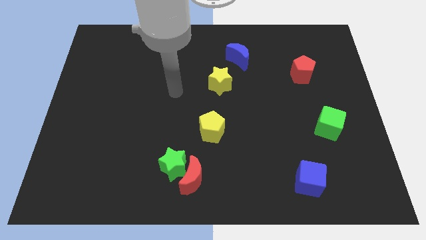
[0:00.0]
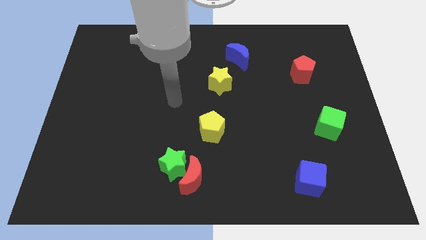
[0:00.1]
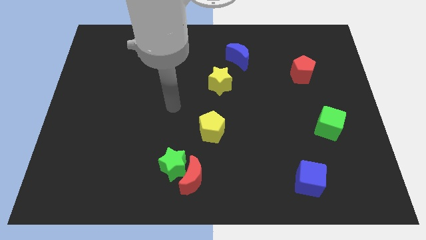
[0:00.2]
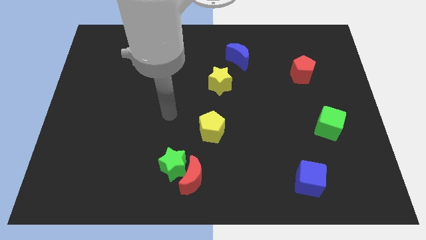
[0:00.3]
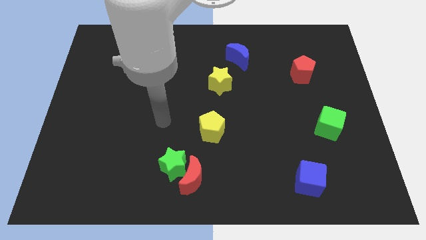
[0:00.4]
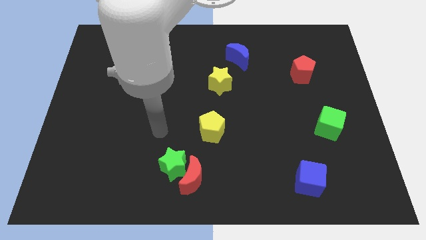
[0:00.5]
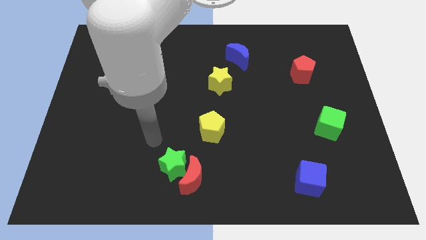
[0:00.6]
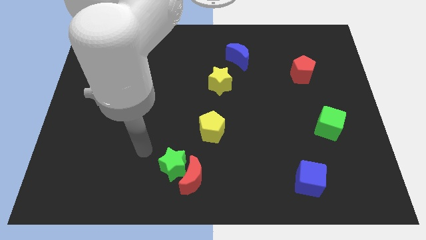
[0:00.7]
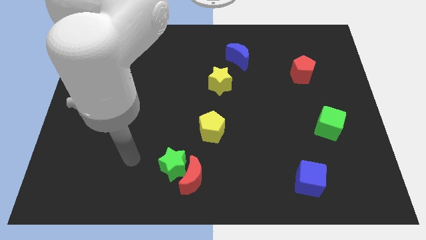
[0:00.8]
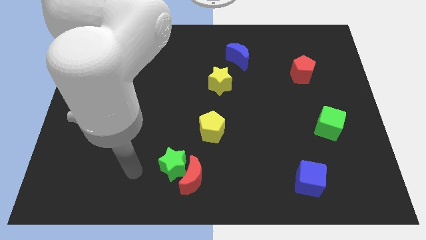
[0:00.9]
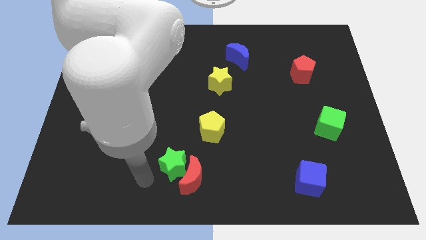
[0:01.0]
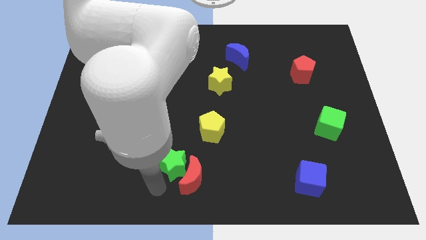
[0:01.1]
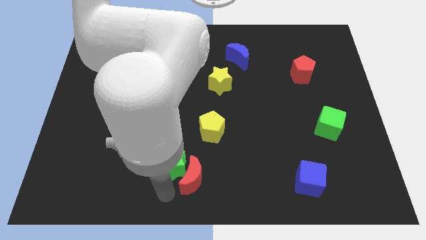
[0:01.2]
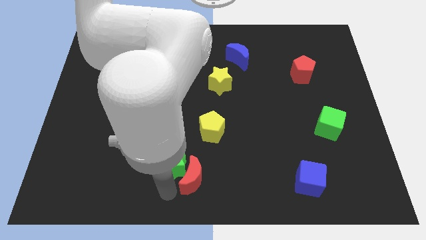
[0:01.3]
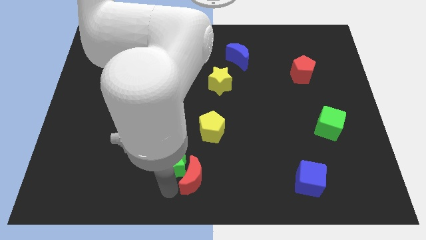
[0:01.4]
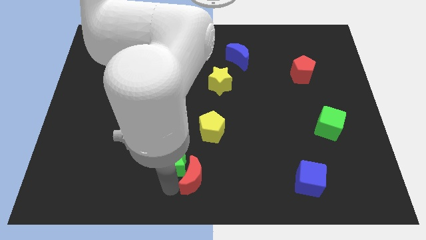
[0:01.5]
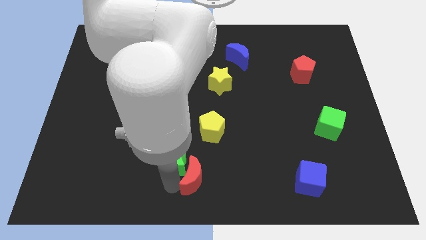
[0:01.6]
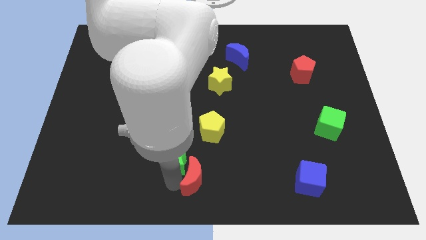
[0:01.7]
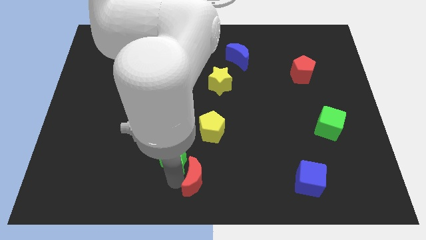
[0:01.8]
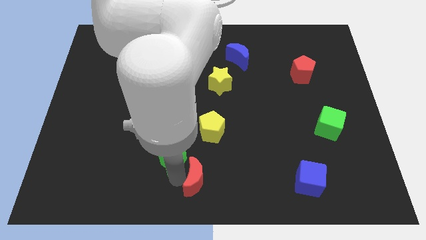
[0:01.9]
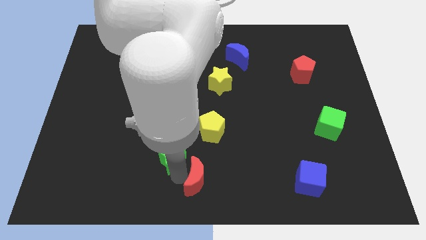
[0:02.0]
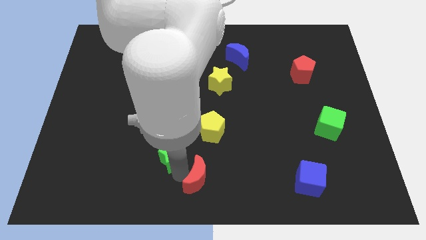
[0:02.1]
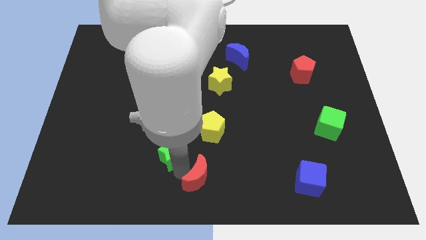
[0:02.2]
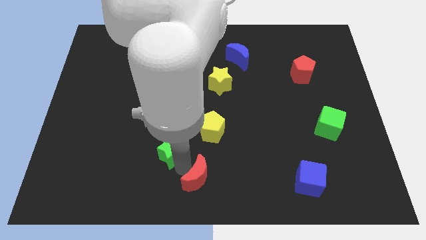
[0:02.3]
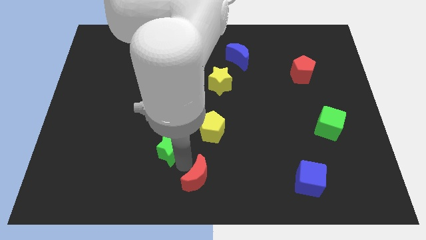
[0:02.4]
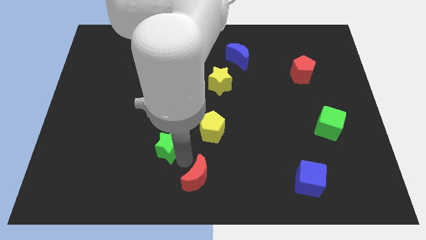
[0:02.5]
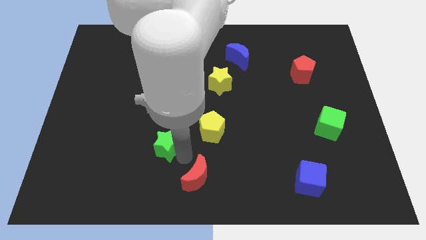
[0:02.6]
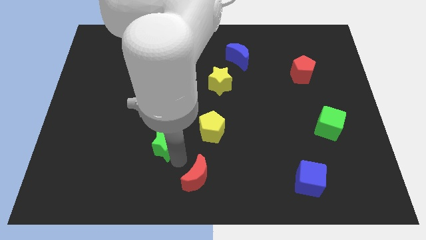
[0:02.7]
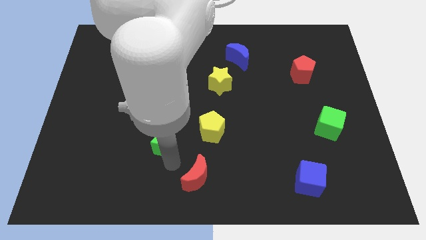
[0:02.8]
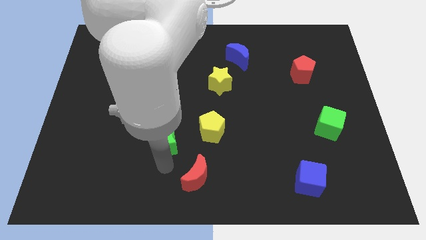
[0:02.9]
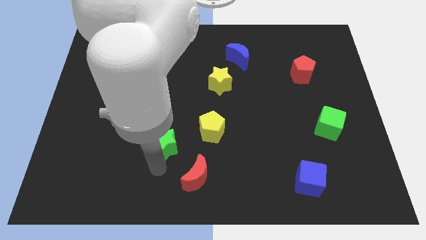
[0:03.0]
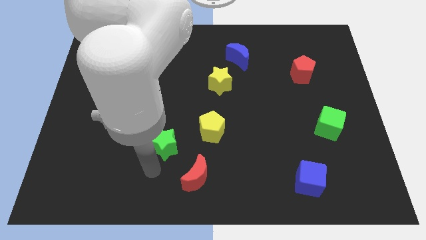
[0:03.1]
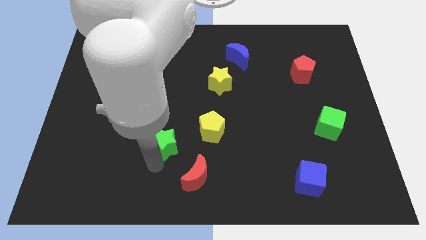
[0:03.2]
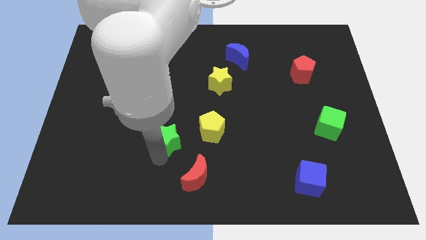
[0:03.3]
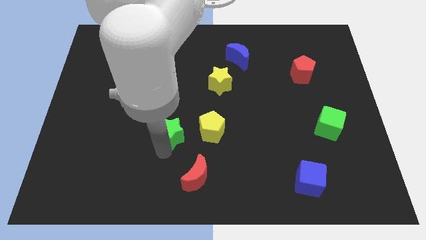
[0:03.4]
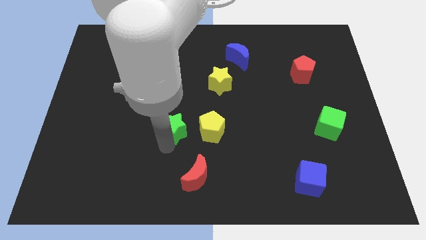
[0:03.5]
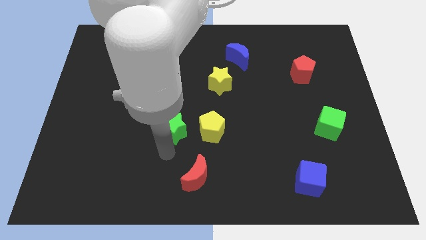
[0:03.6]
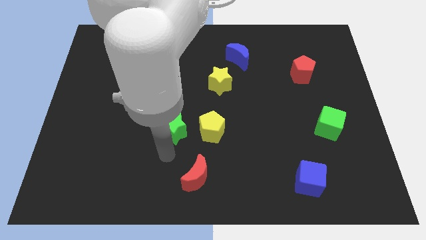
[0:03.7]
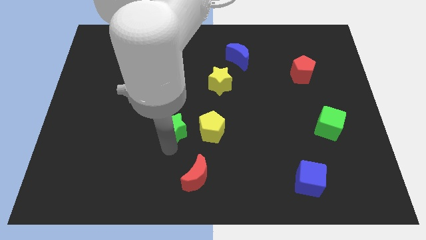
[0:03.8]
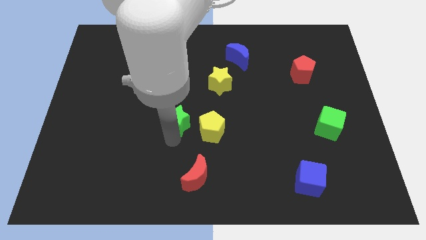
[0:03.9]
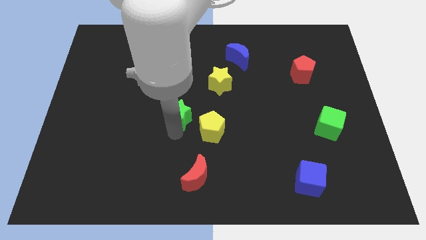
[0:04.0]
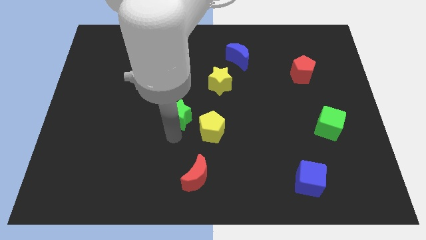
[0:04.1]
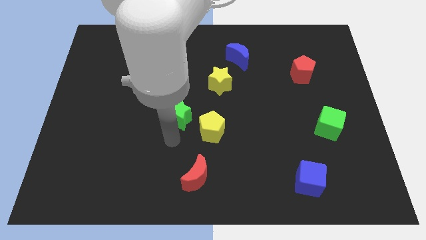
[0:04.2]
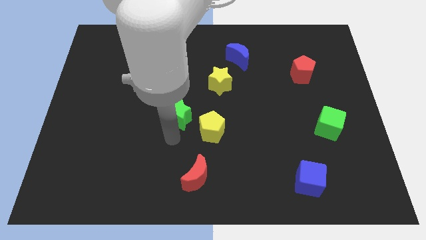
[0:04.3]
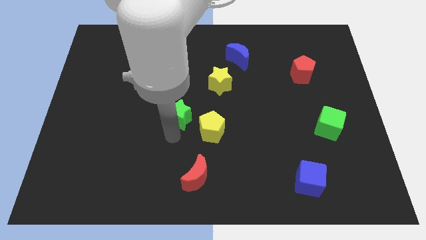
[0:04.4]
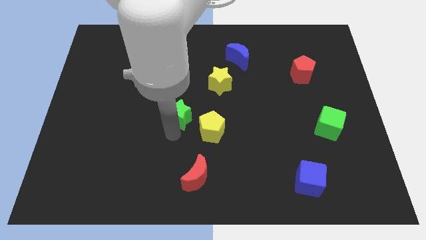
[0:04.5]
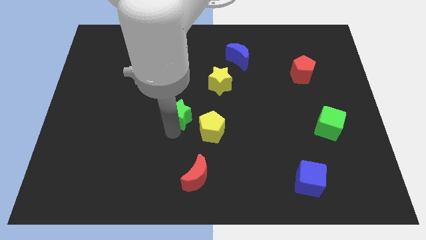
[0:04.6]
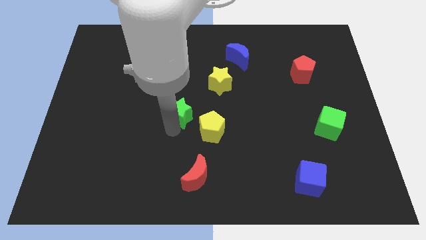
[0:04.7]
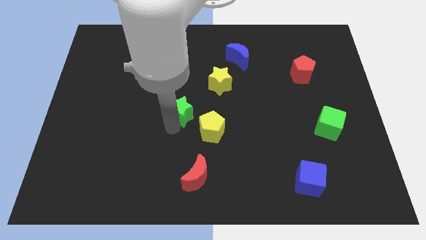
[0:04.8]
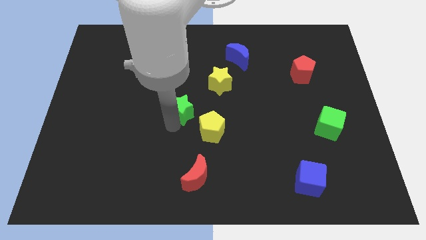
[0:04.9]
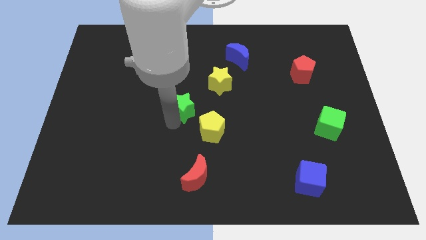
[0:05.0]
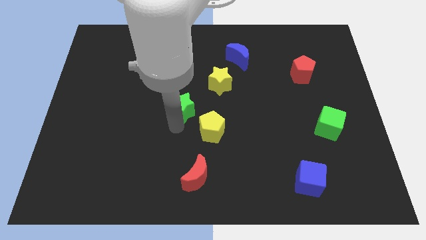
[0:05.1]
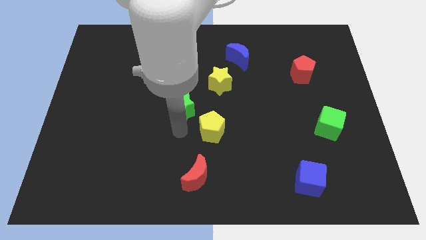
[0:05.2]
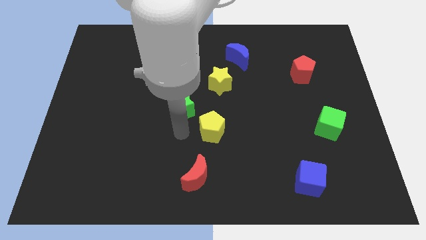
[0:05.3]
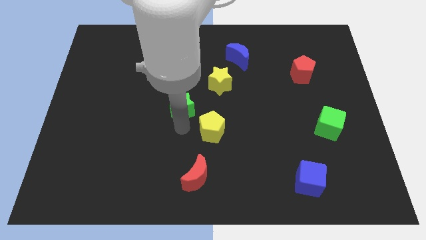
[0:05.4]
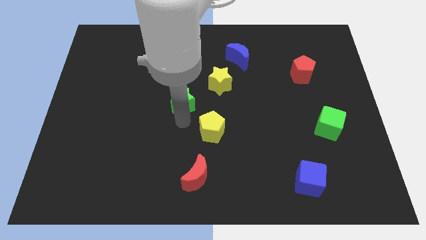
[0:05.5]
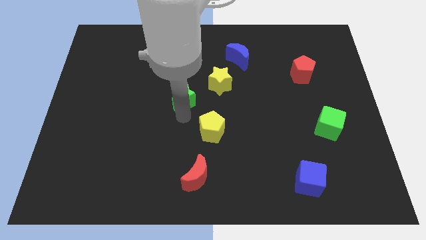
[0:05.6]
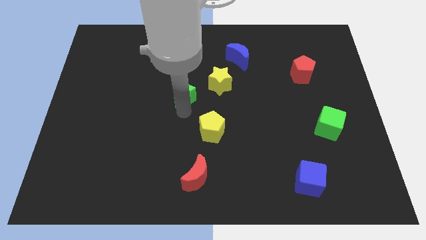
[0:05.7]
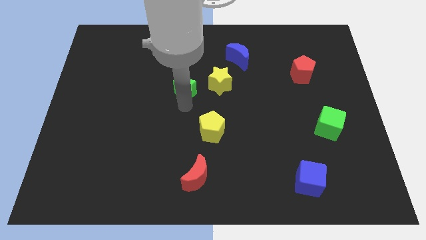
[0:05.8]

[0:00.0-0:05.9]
slide the green star upwards

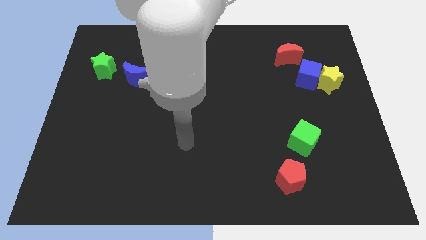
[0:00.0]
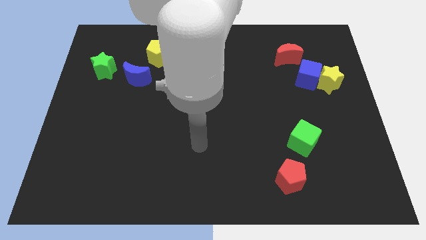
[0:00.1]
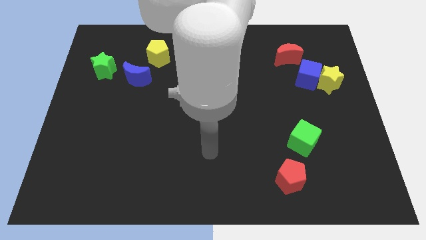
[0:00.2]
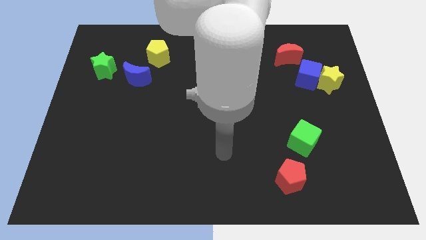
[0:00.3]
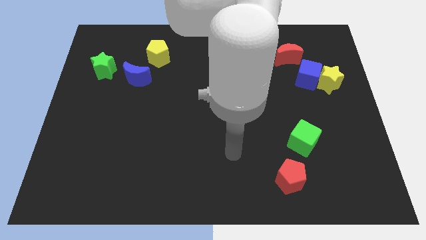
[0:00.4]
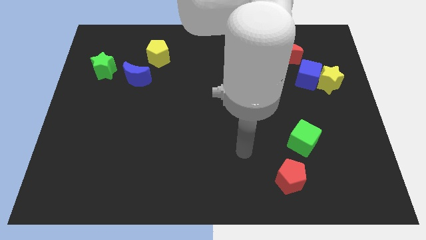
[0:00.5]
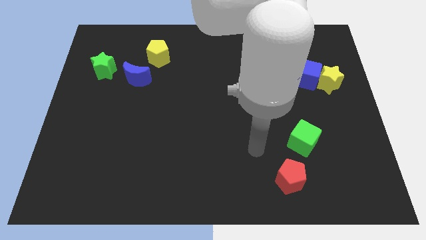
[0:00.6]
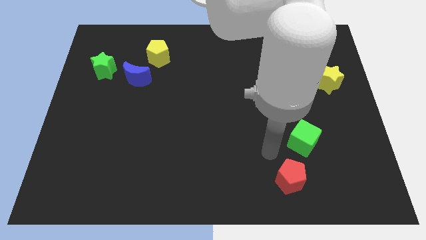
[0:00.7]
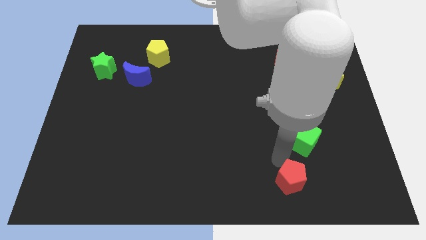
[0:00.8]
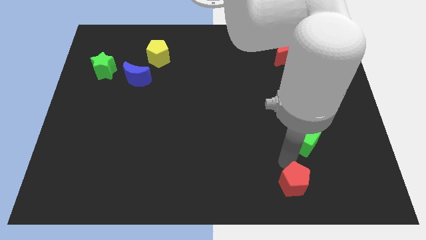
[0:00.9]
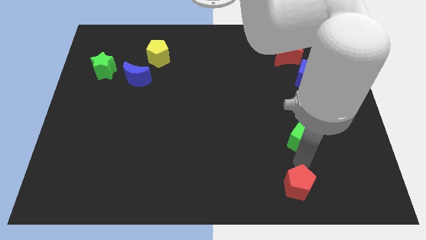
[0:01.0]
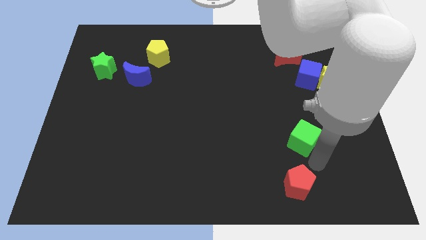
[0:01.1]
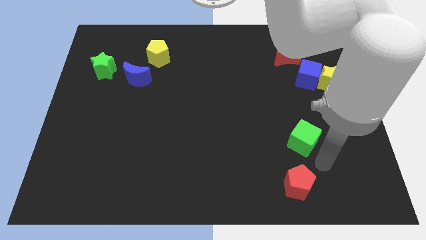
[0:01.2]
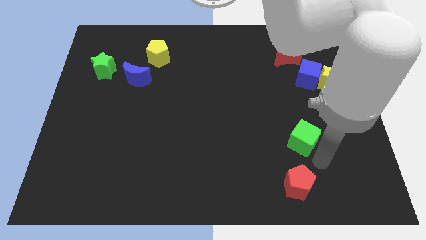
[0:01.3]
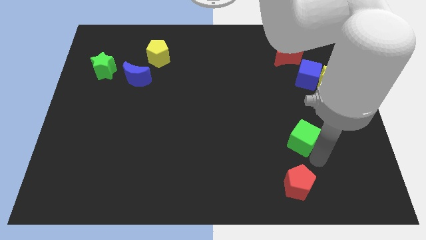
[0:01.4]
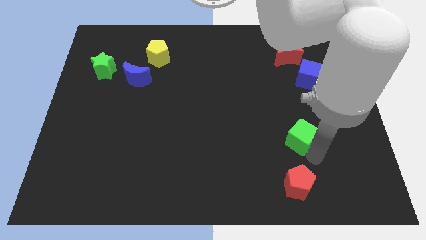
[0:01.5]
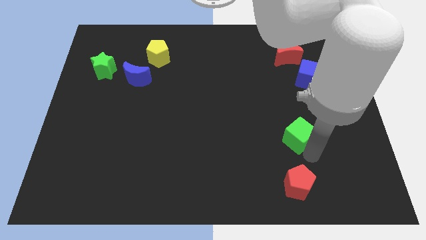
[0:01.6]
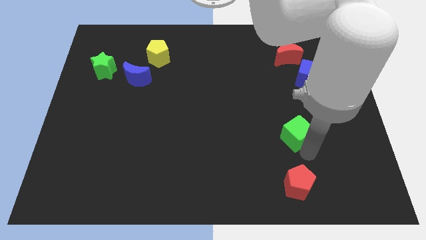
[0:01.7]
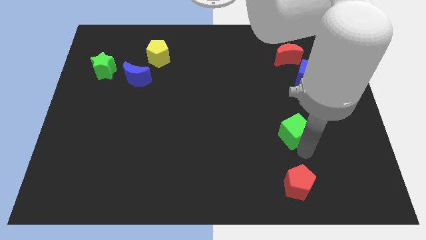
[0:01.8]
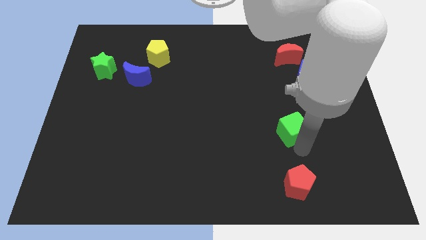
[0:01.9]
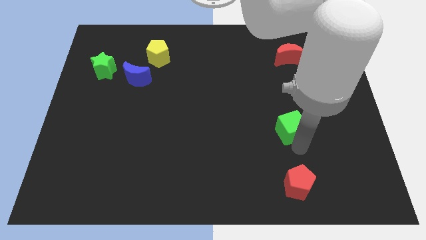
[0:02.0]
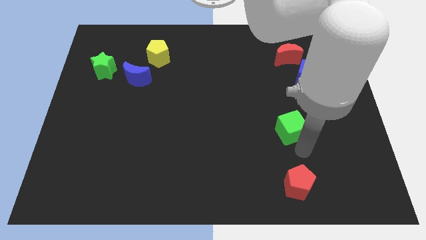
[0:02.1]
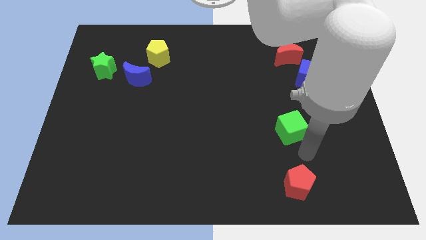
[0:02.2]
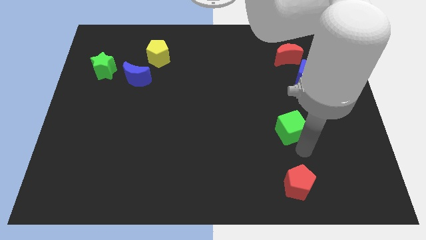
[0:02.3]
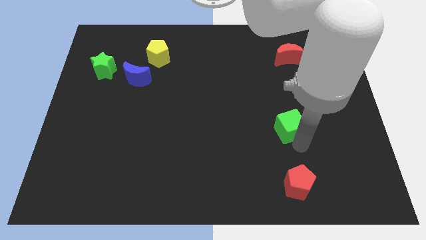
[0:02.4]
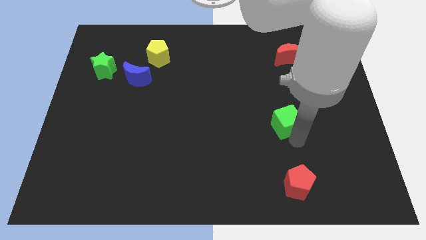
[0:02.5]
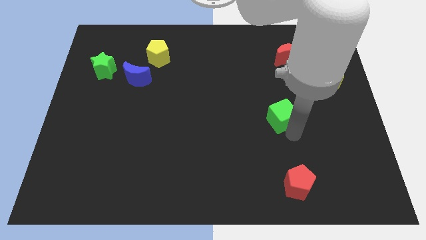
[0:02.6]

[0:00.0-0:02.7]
move the green cube diagonally up and left a bit
